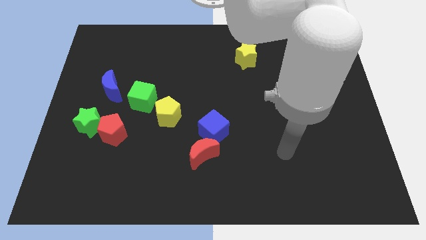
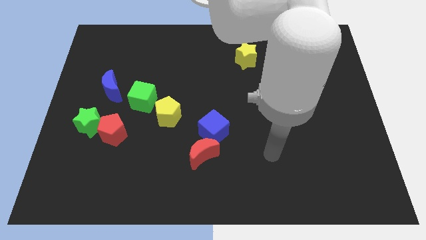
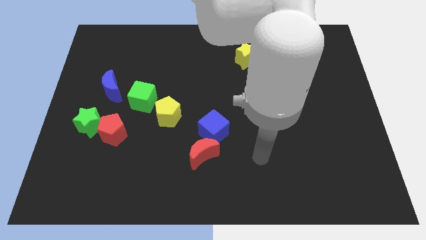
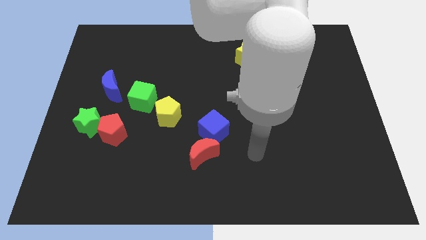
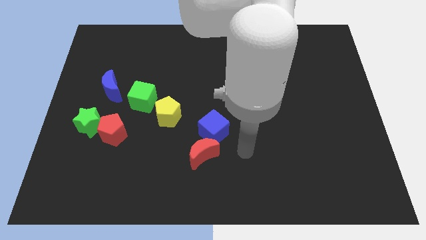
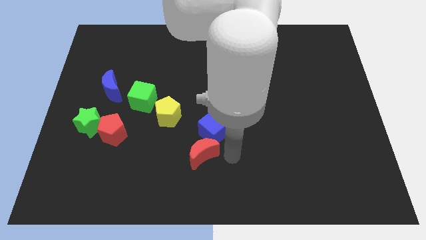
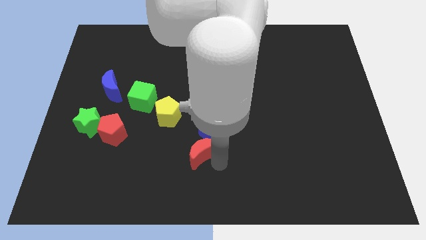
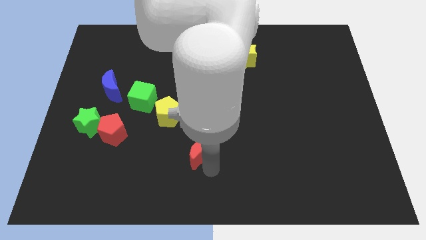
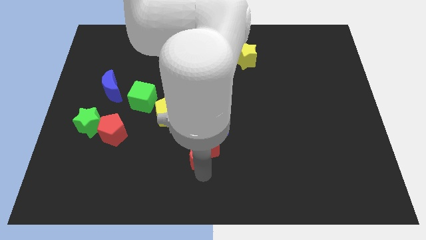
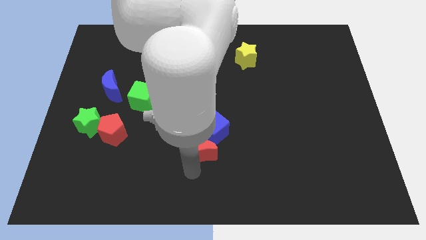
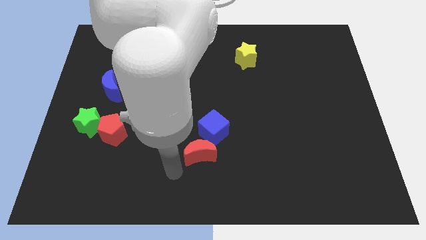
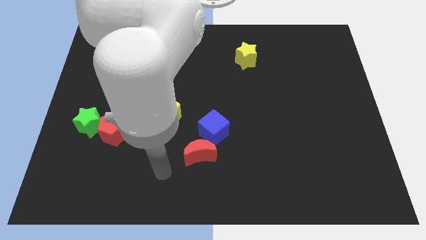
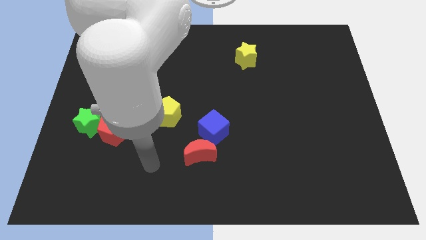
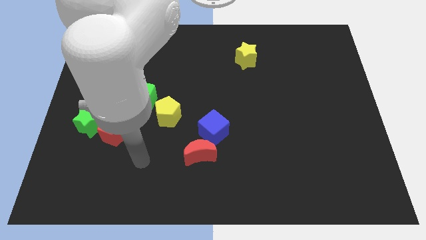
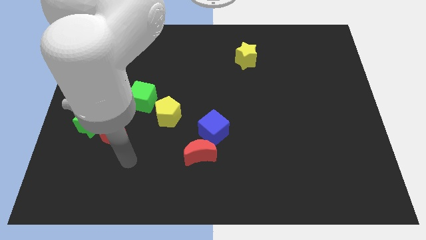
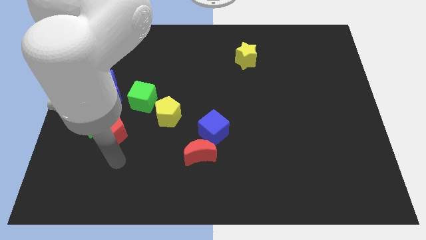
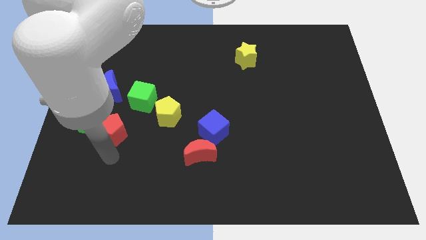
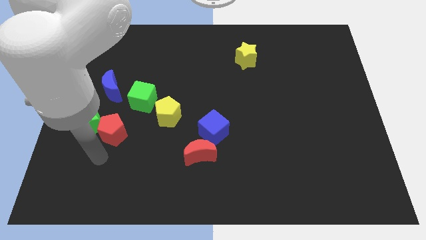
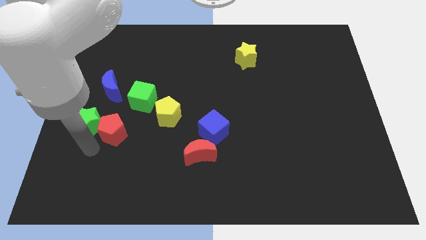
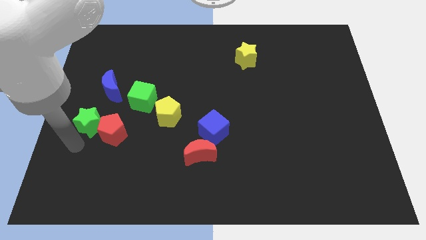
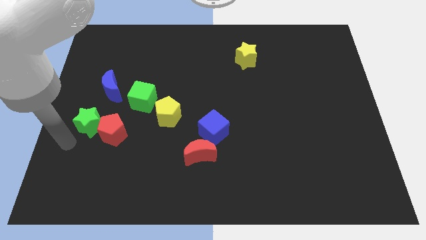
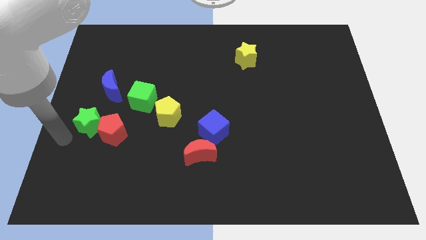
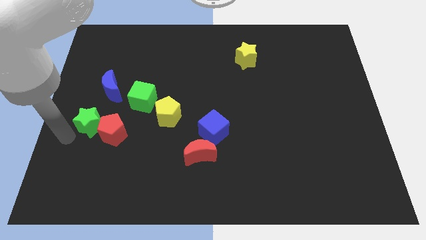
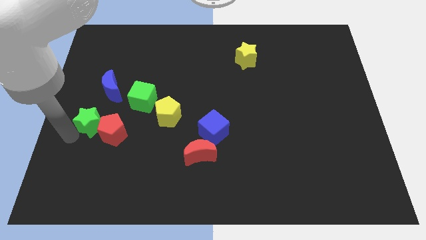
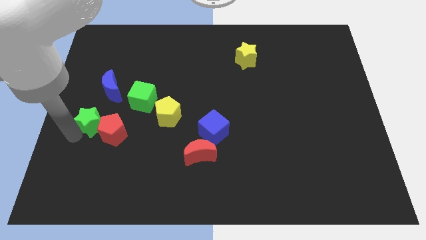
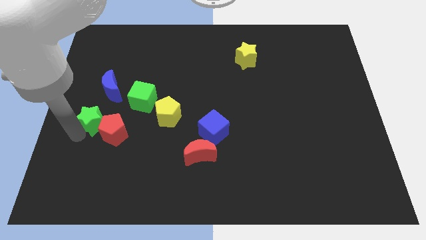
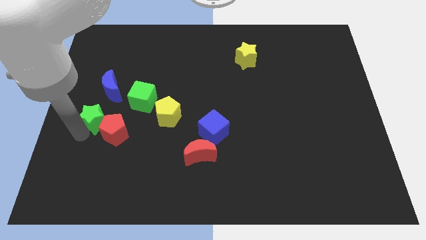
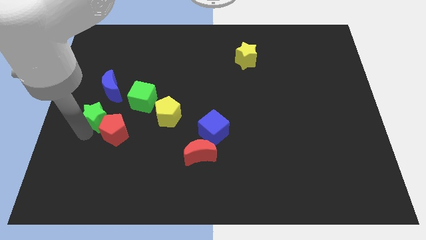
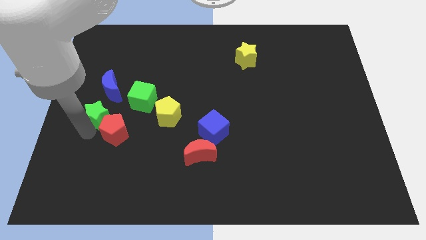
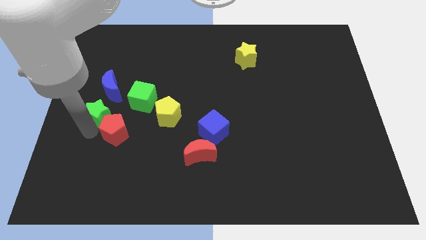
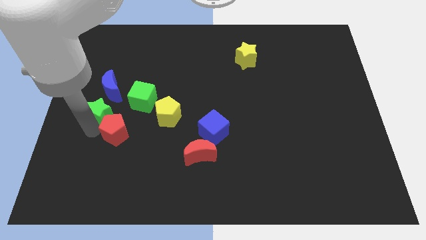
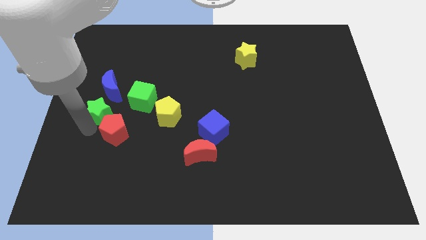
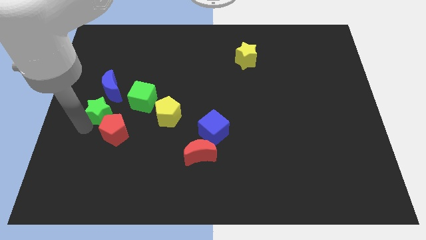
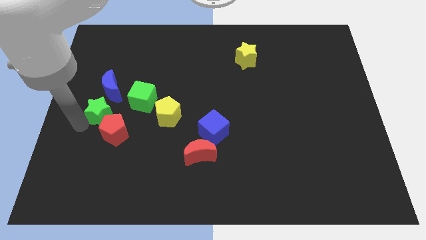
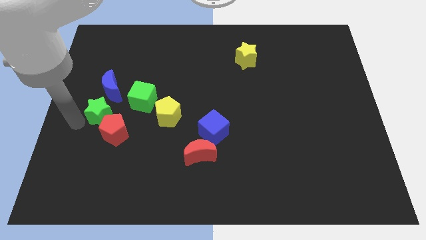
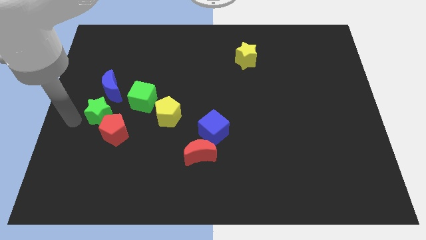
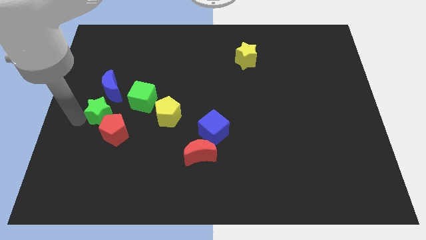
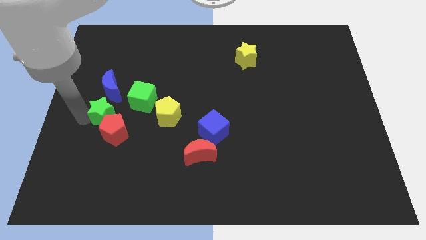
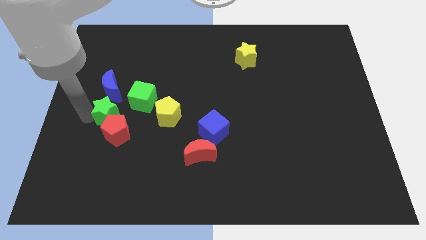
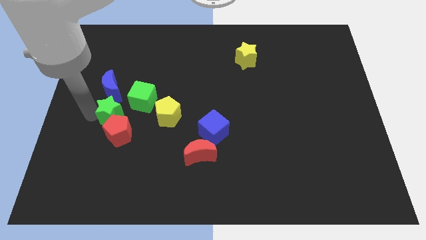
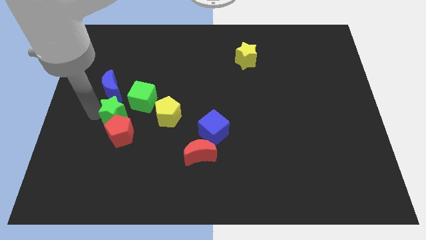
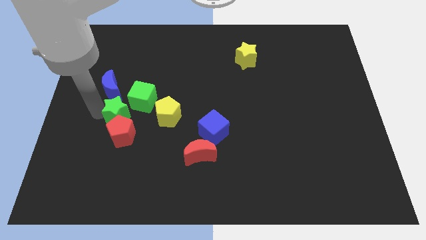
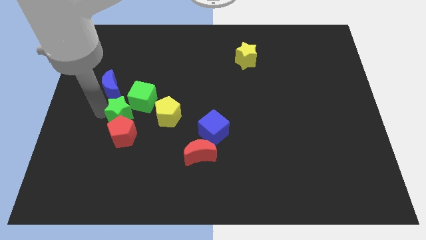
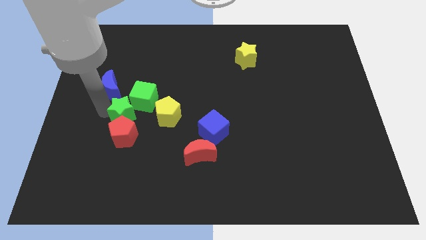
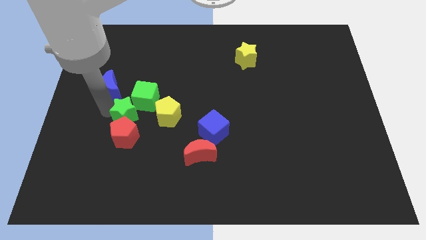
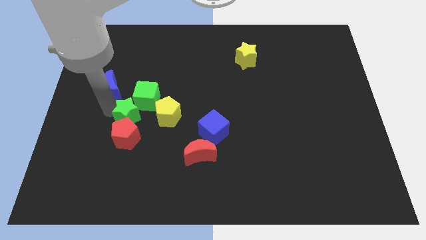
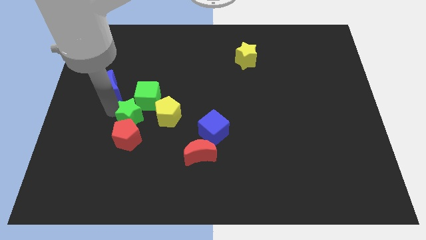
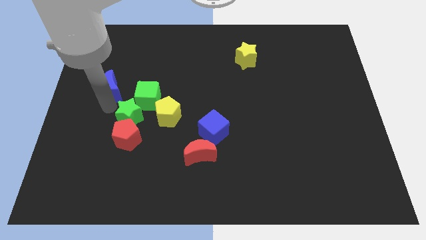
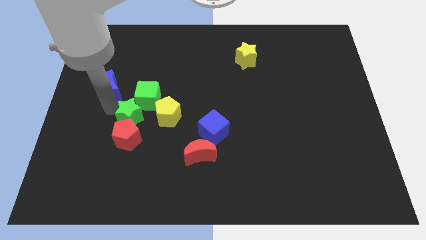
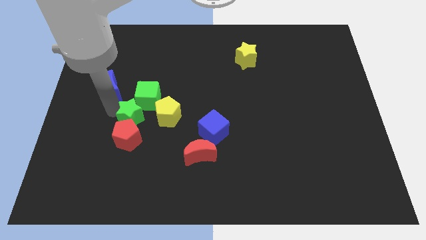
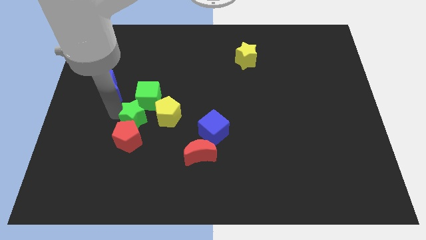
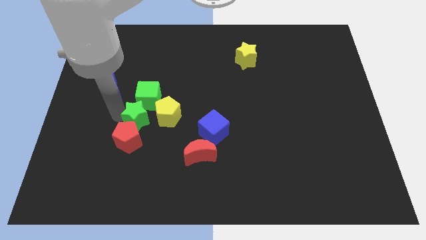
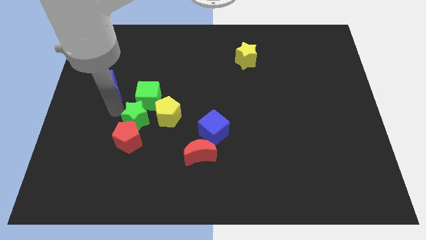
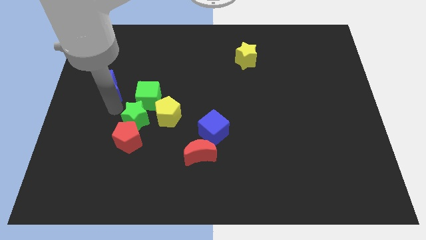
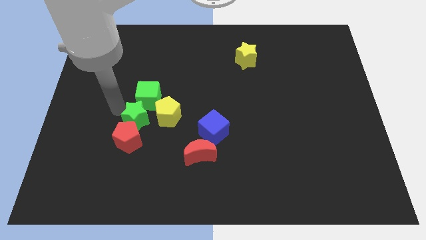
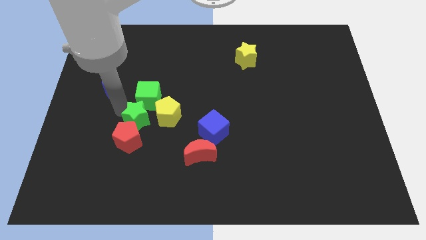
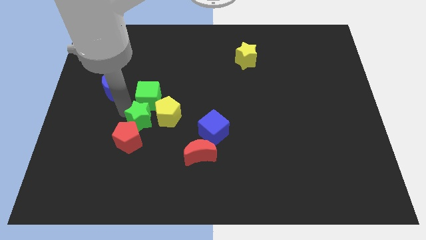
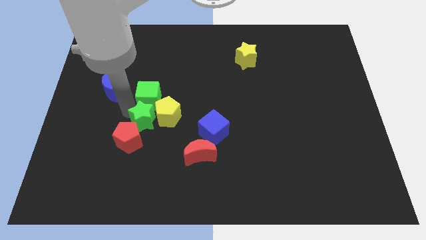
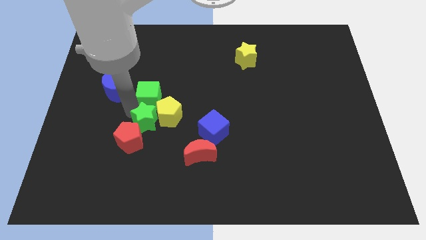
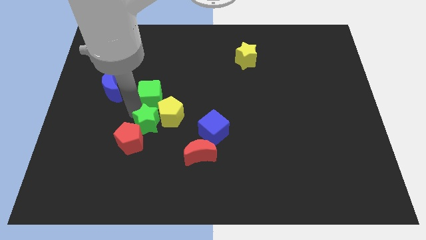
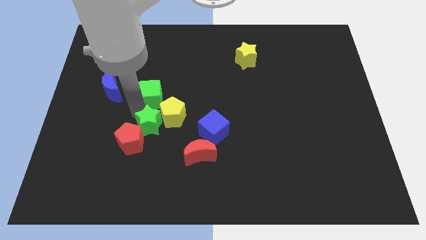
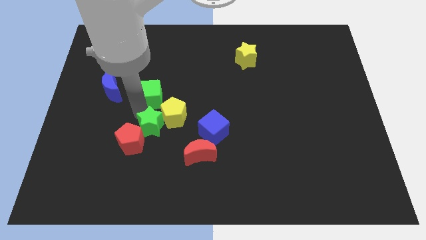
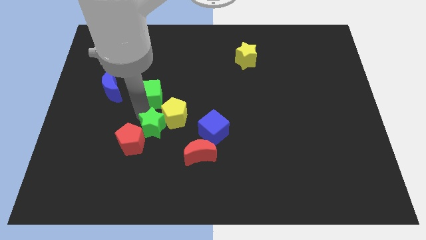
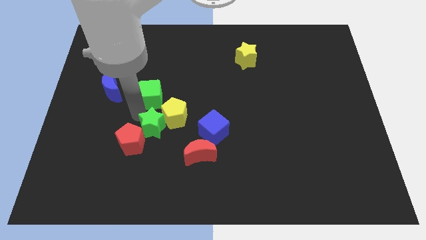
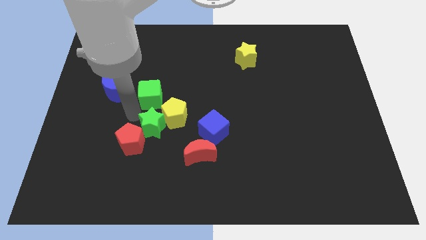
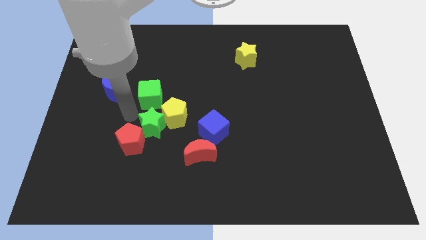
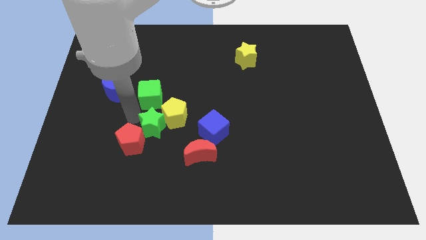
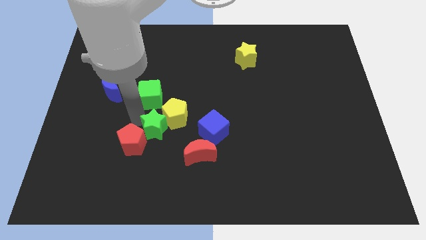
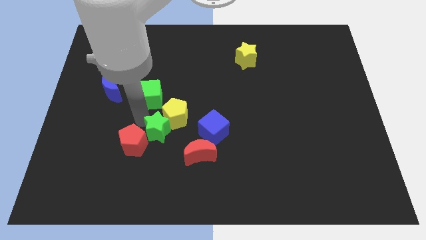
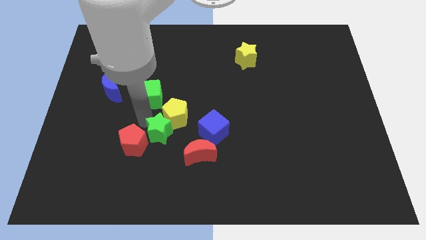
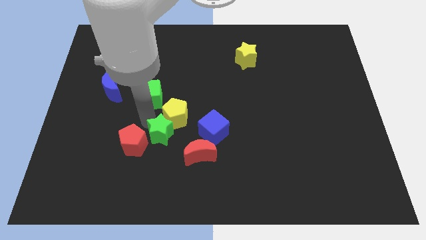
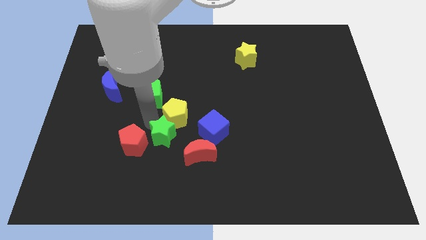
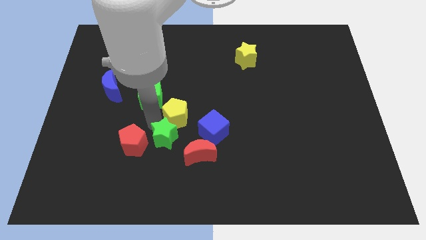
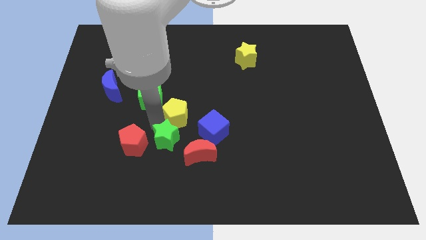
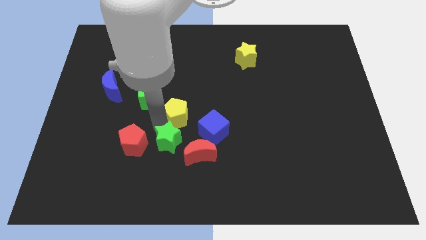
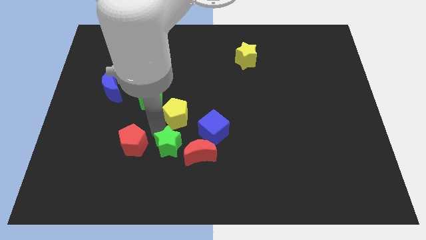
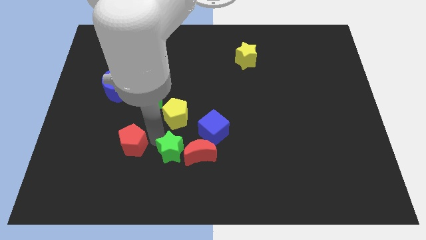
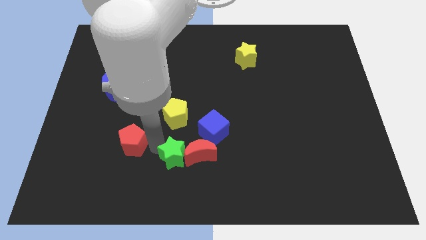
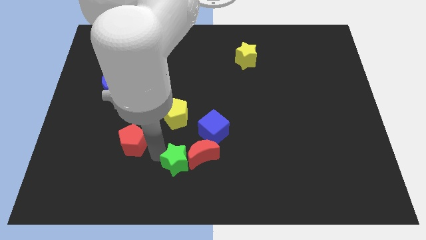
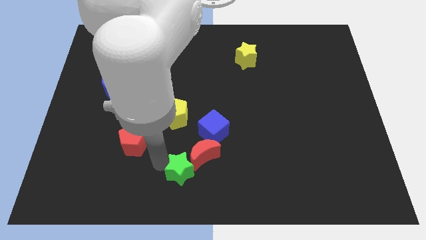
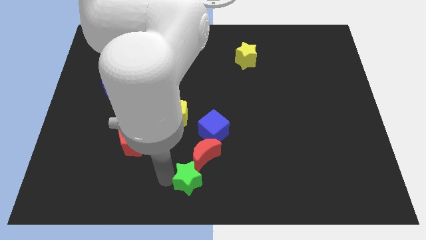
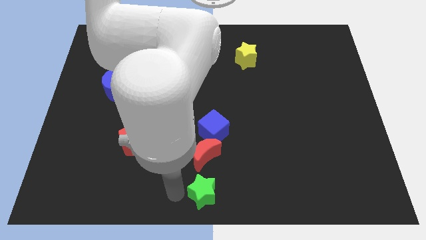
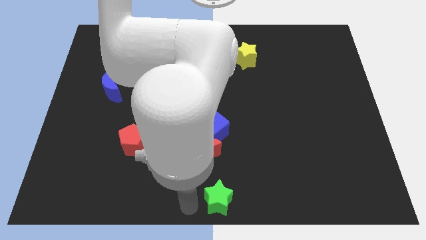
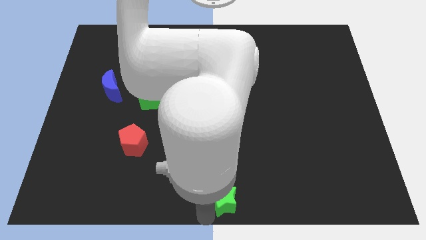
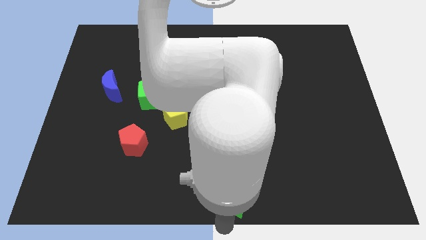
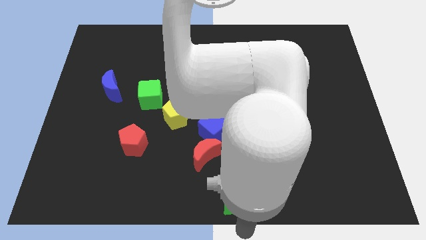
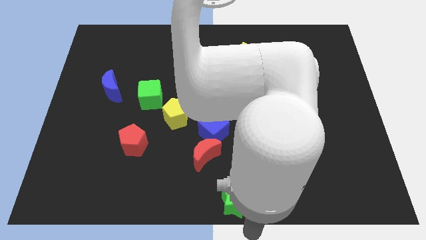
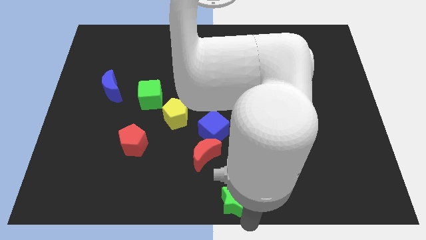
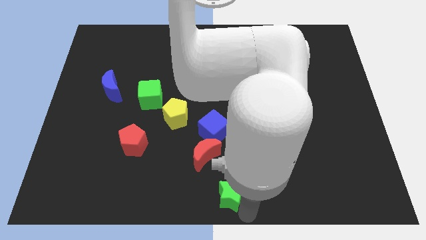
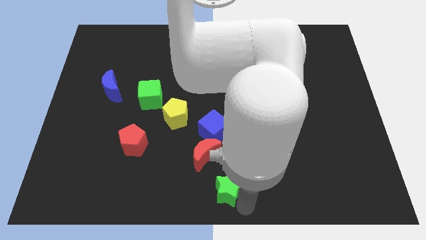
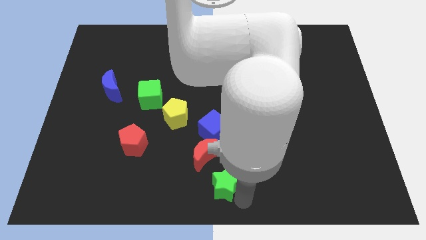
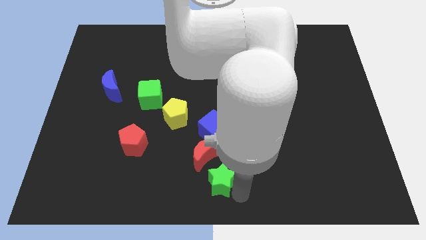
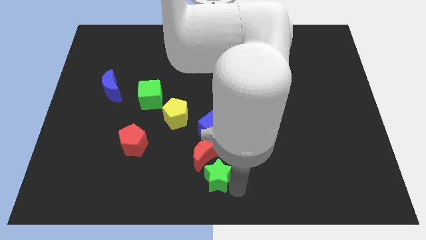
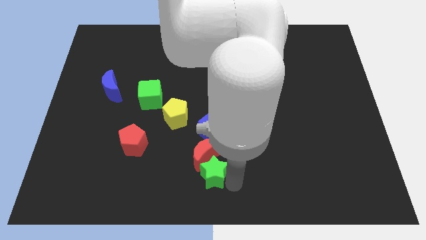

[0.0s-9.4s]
push the green star right
